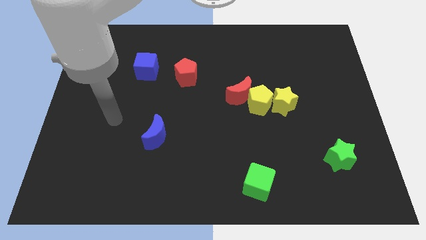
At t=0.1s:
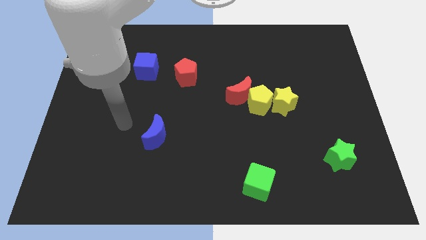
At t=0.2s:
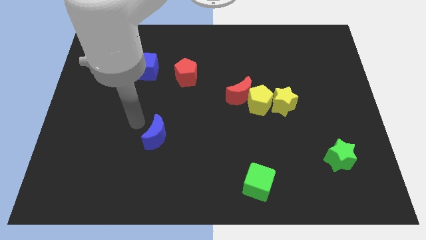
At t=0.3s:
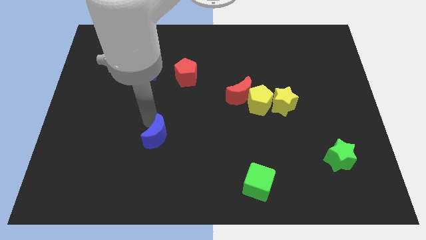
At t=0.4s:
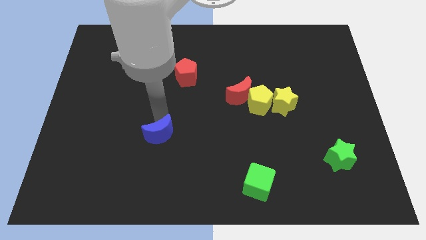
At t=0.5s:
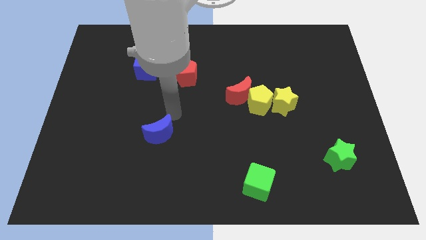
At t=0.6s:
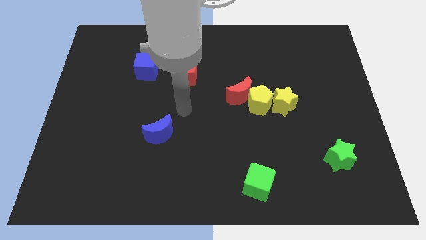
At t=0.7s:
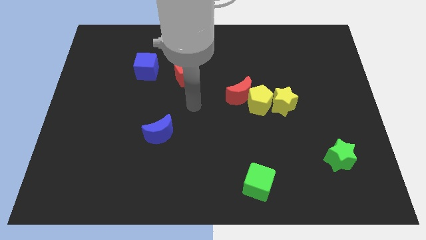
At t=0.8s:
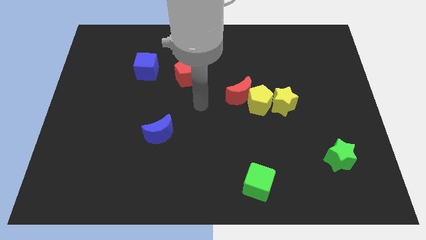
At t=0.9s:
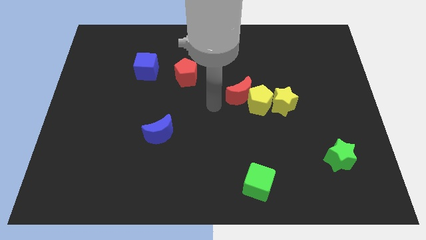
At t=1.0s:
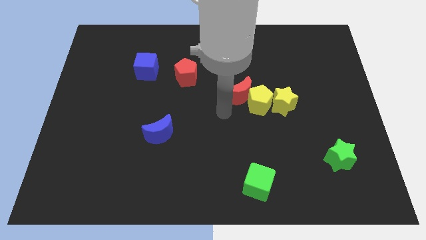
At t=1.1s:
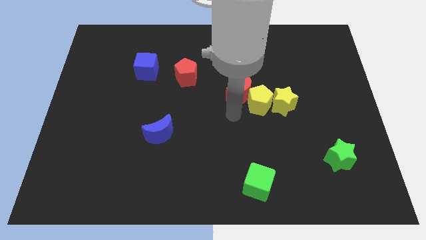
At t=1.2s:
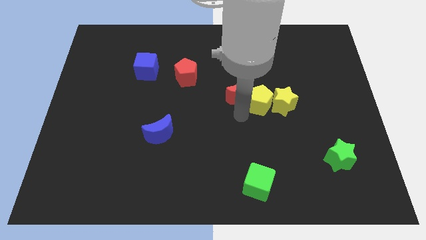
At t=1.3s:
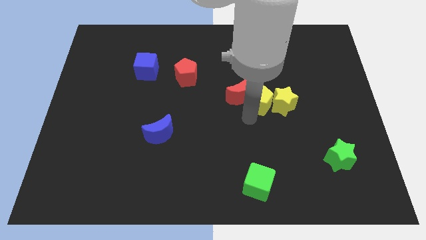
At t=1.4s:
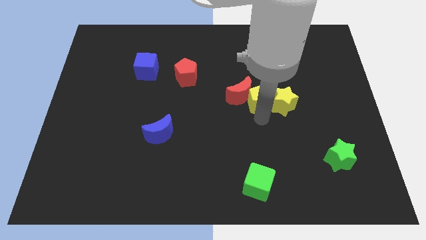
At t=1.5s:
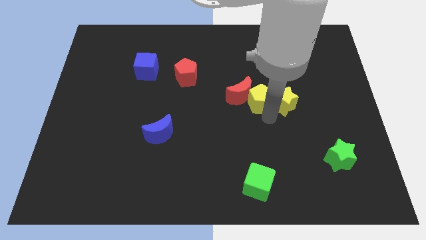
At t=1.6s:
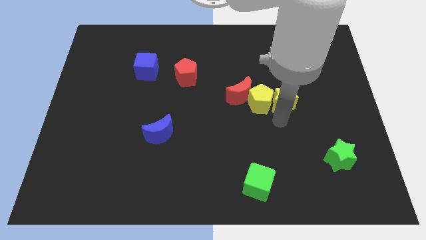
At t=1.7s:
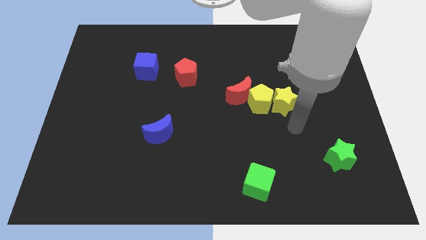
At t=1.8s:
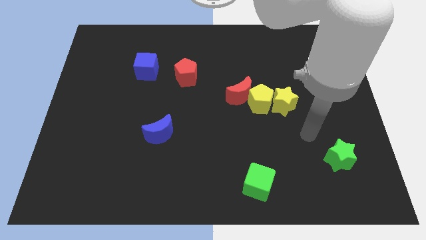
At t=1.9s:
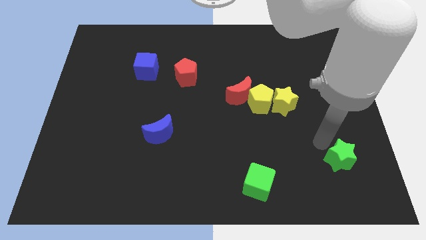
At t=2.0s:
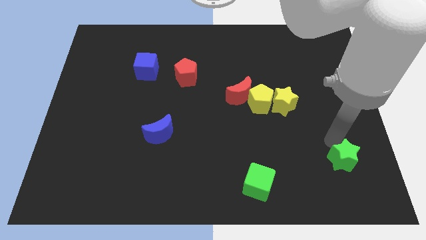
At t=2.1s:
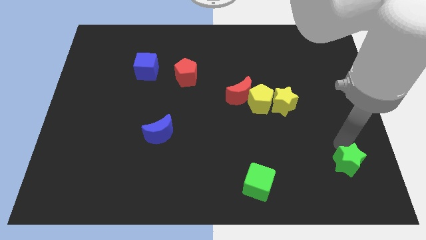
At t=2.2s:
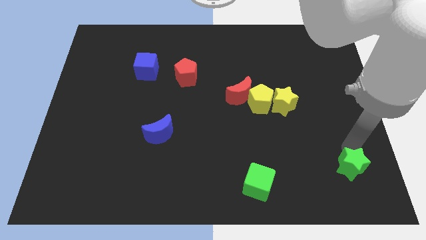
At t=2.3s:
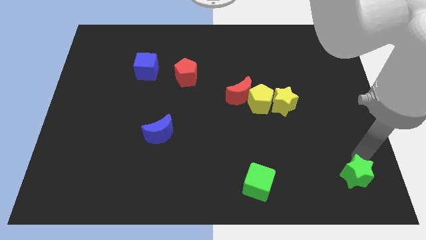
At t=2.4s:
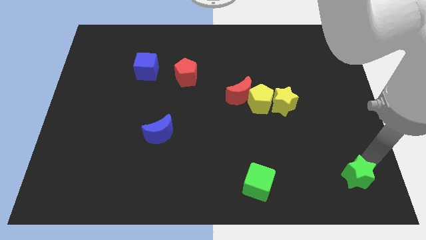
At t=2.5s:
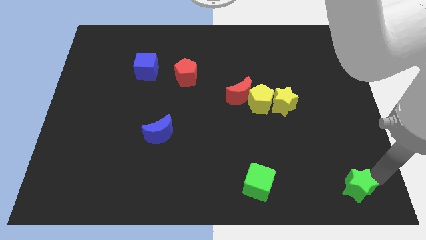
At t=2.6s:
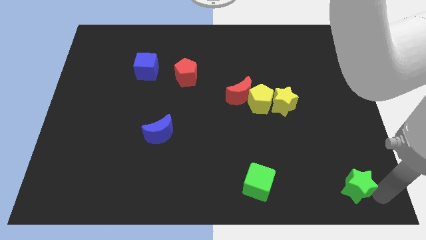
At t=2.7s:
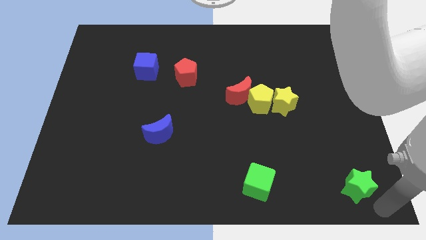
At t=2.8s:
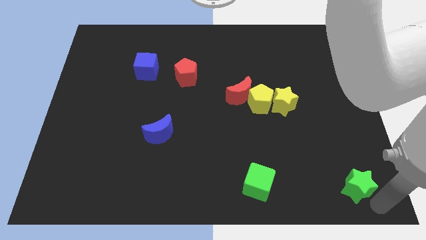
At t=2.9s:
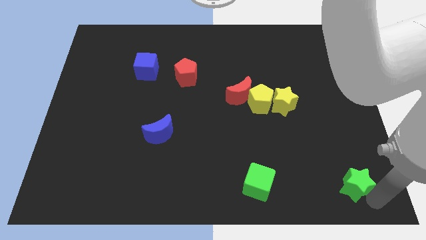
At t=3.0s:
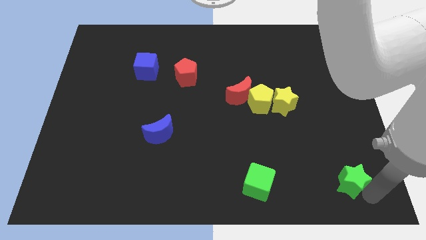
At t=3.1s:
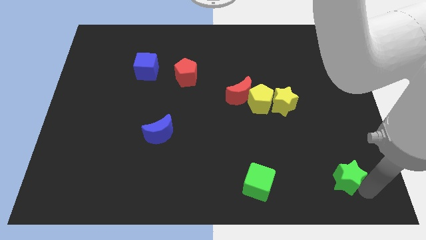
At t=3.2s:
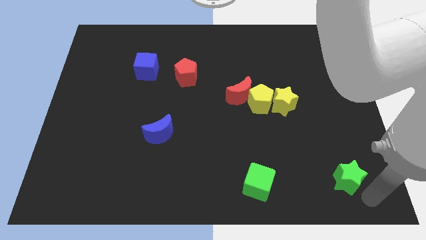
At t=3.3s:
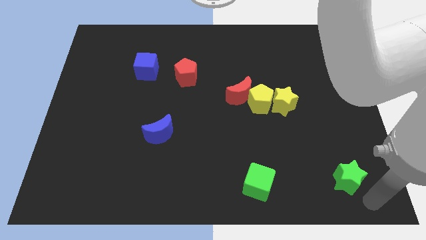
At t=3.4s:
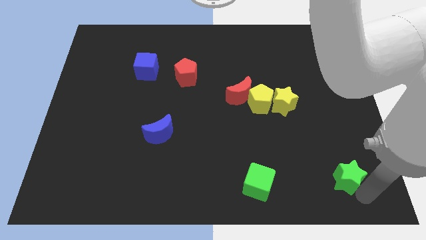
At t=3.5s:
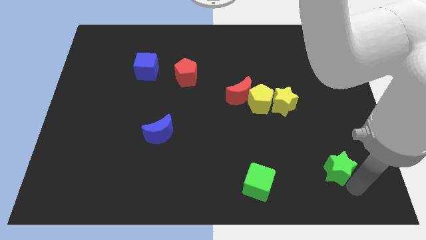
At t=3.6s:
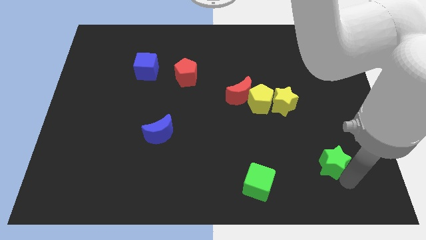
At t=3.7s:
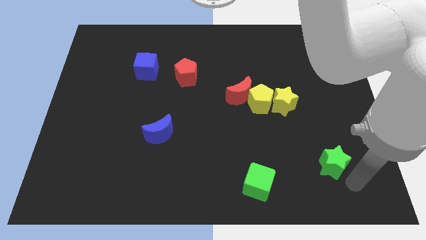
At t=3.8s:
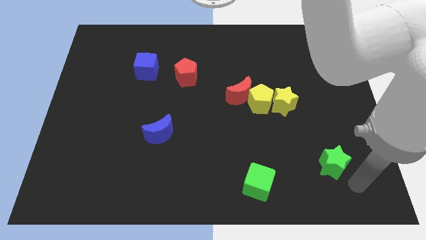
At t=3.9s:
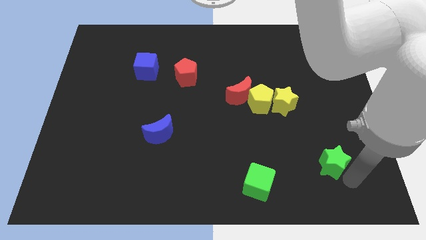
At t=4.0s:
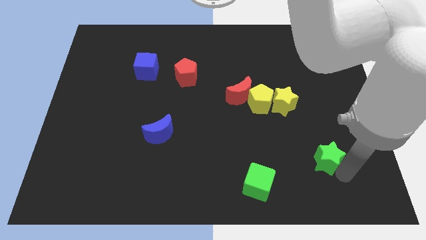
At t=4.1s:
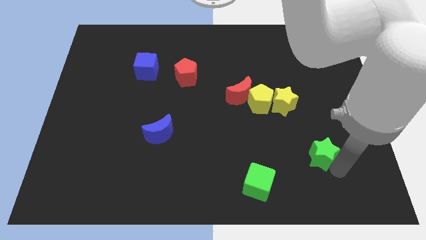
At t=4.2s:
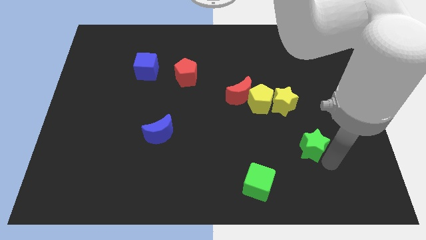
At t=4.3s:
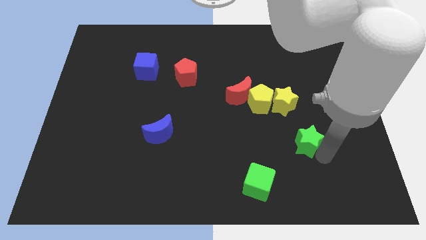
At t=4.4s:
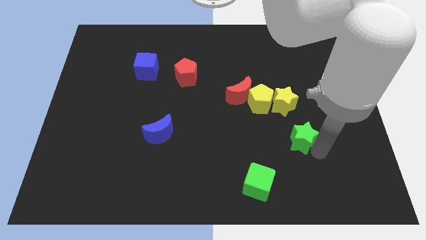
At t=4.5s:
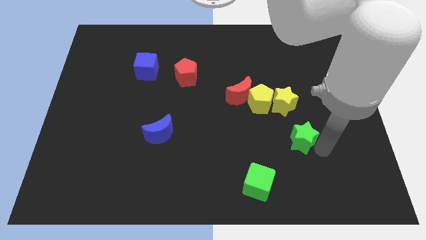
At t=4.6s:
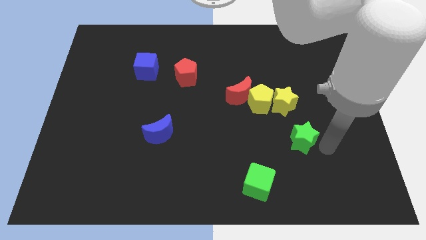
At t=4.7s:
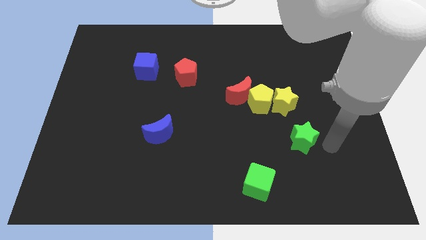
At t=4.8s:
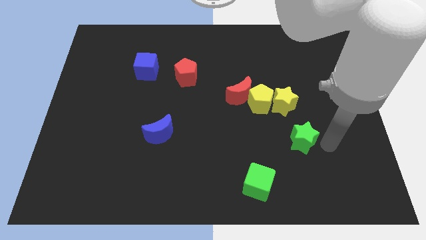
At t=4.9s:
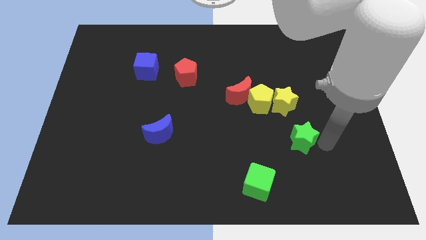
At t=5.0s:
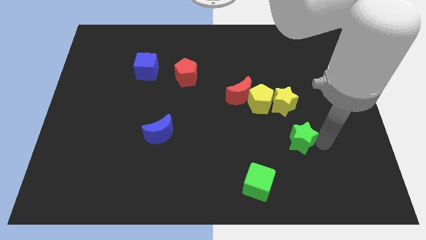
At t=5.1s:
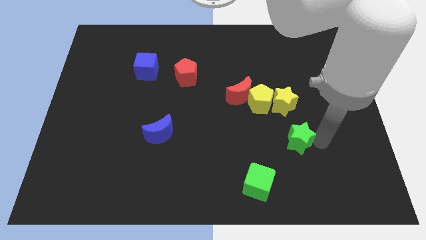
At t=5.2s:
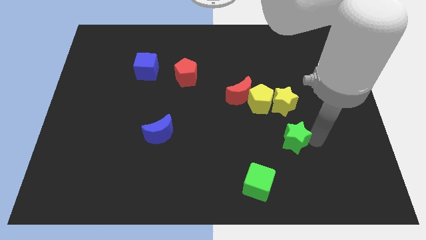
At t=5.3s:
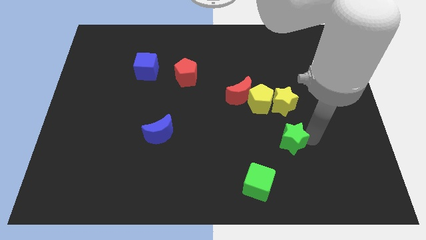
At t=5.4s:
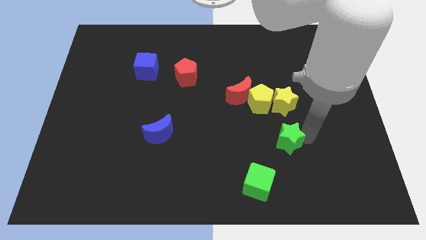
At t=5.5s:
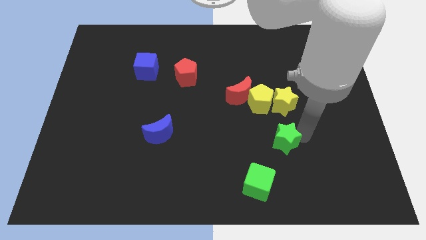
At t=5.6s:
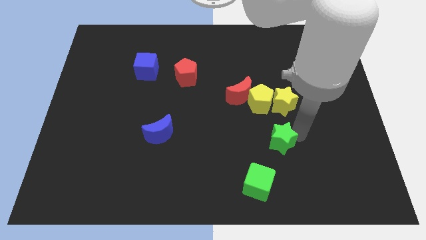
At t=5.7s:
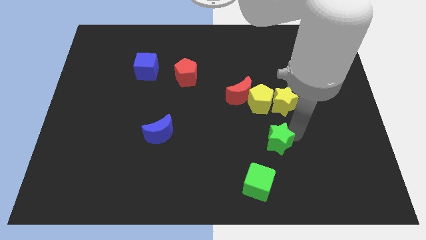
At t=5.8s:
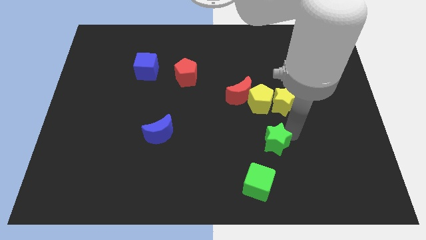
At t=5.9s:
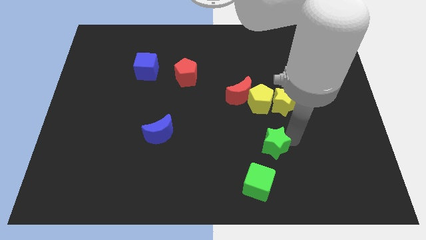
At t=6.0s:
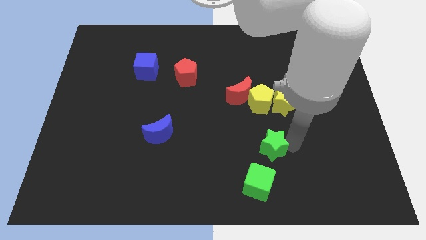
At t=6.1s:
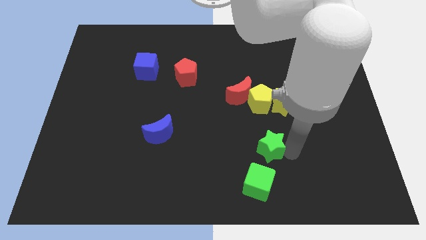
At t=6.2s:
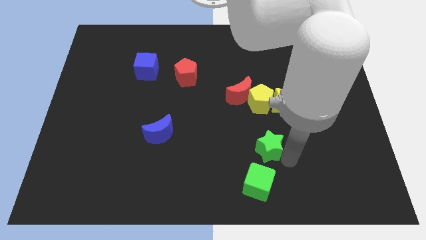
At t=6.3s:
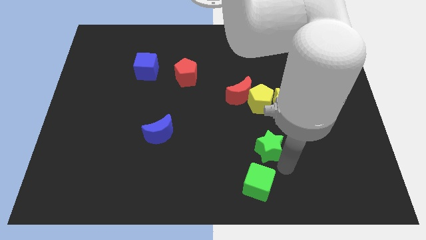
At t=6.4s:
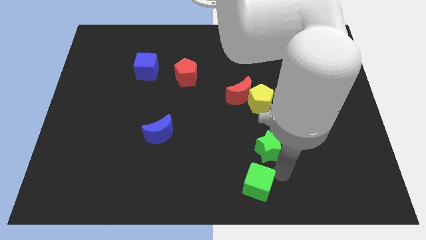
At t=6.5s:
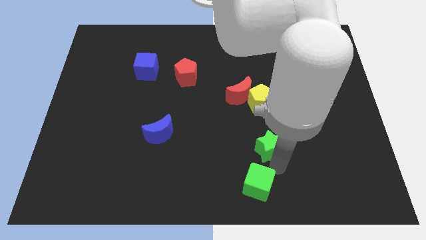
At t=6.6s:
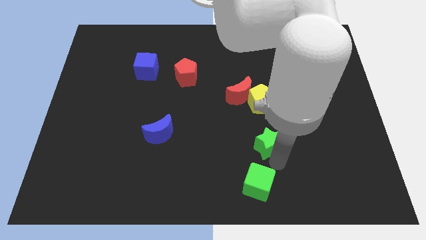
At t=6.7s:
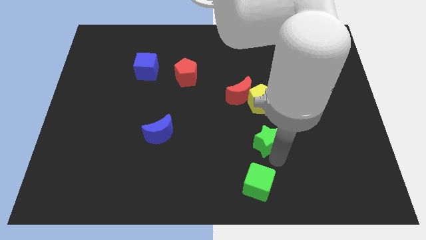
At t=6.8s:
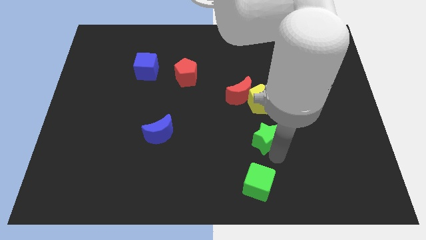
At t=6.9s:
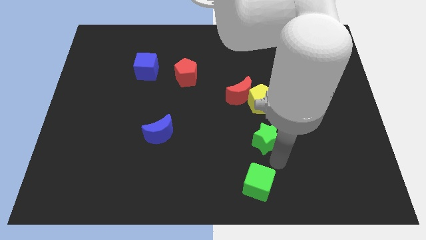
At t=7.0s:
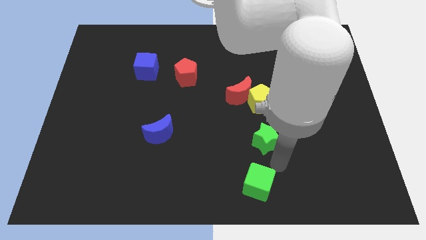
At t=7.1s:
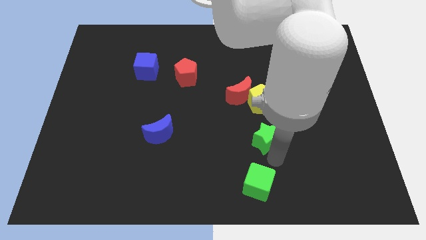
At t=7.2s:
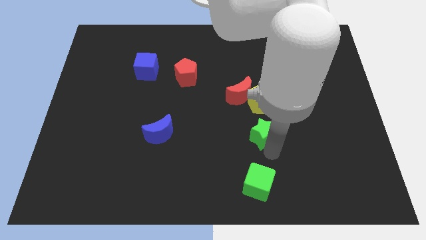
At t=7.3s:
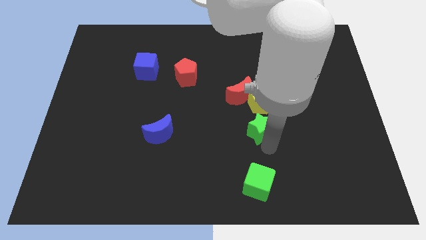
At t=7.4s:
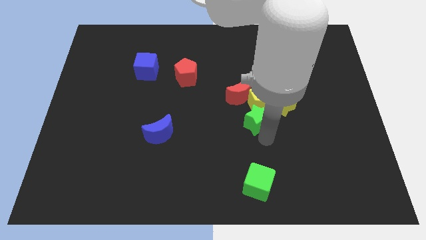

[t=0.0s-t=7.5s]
slide the green star to the center
